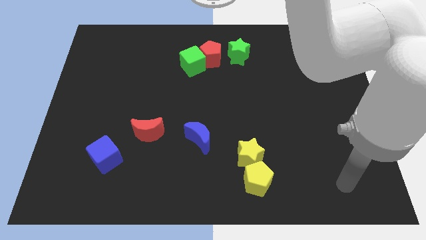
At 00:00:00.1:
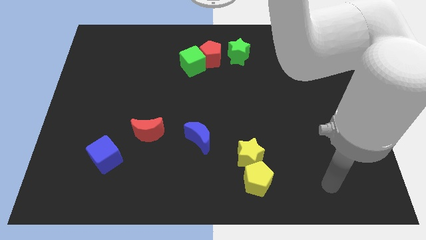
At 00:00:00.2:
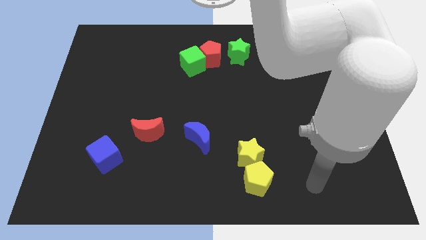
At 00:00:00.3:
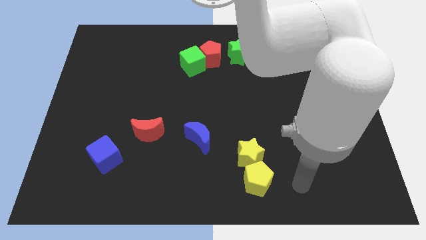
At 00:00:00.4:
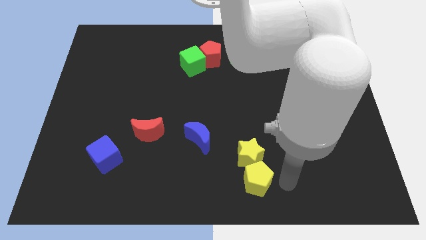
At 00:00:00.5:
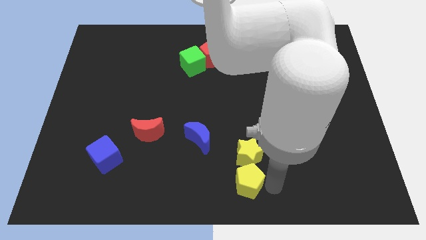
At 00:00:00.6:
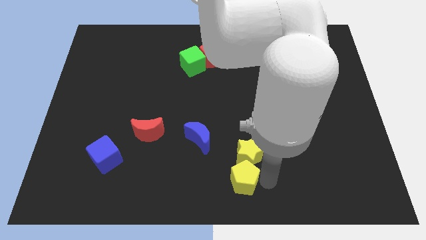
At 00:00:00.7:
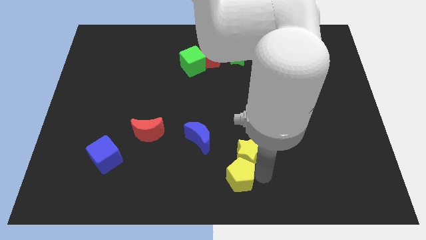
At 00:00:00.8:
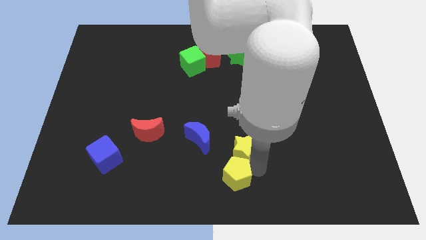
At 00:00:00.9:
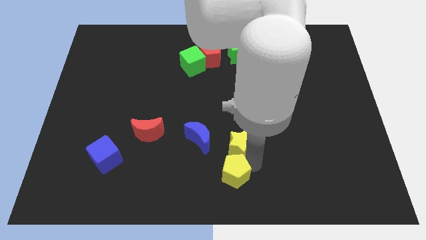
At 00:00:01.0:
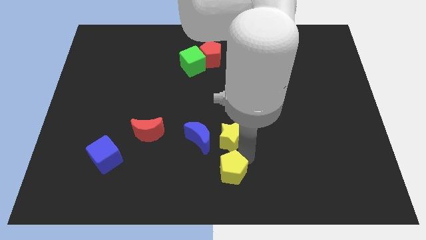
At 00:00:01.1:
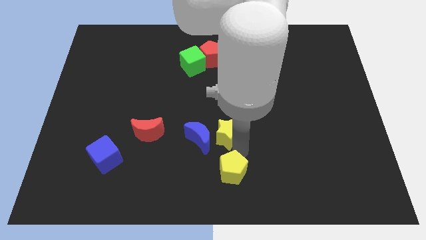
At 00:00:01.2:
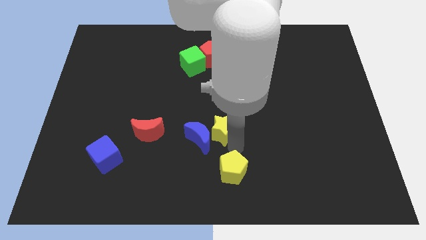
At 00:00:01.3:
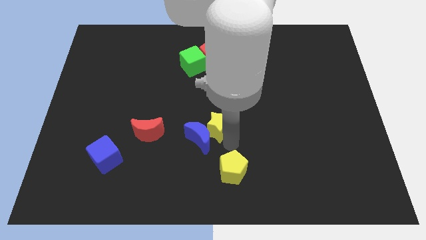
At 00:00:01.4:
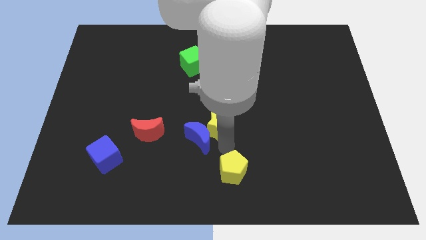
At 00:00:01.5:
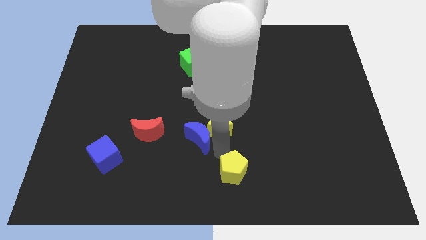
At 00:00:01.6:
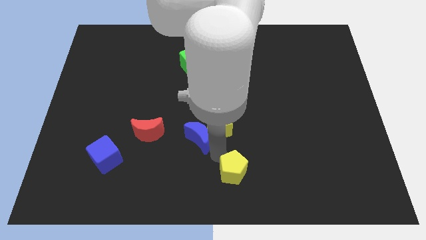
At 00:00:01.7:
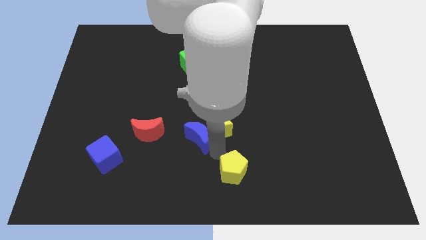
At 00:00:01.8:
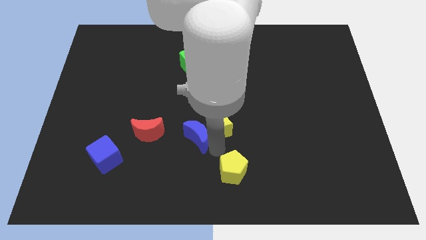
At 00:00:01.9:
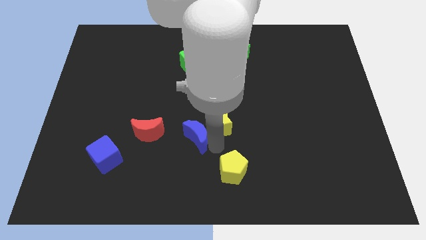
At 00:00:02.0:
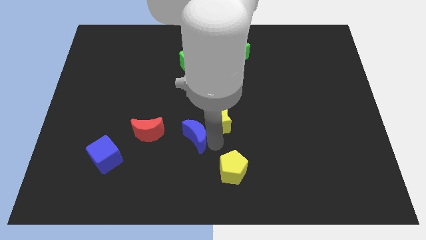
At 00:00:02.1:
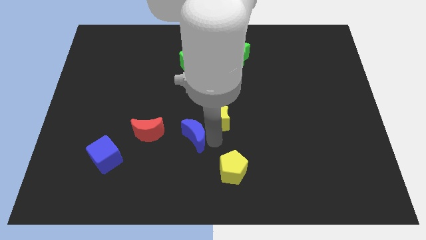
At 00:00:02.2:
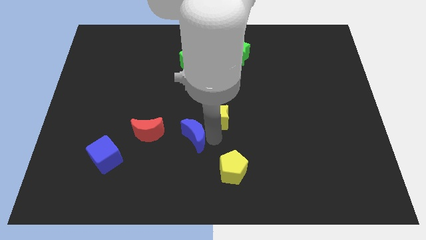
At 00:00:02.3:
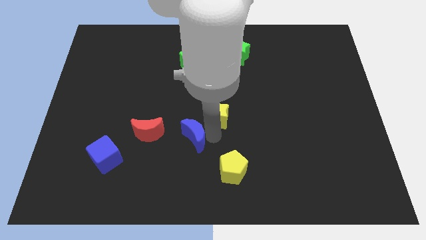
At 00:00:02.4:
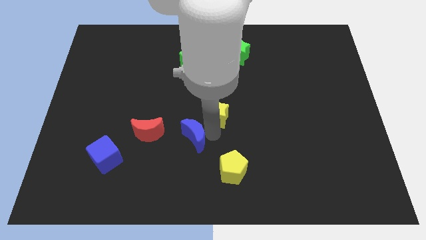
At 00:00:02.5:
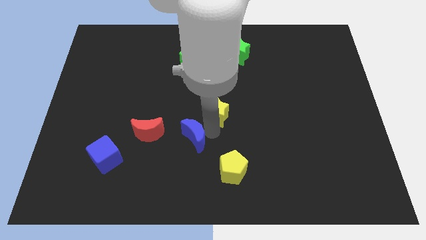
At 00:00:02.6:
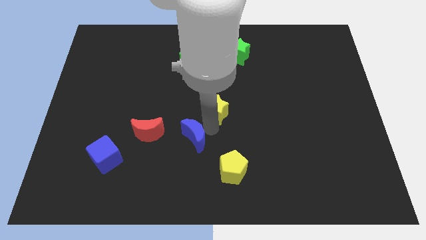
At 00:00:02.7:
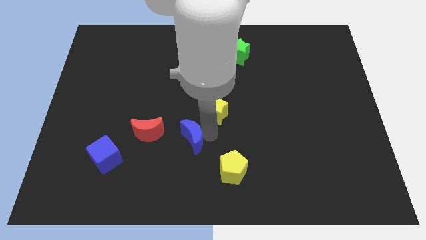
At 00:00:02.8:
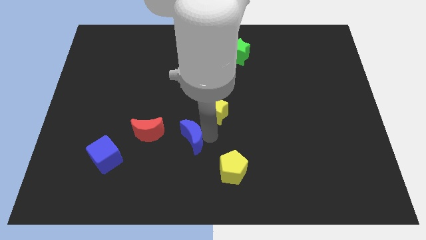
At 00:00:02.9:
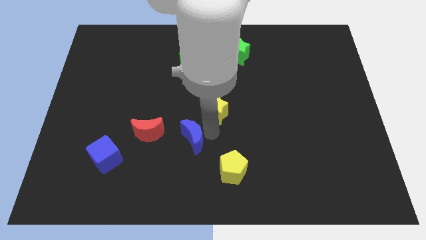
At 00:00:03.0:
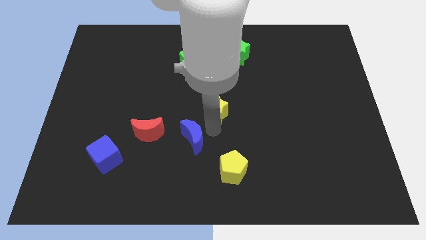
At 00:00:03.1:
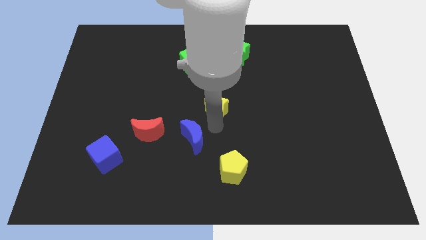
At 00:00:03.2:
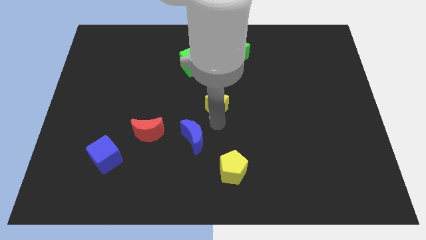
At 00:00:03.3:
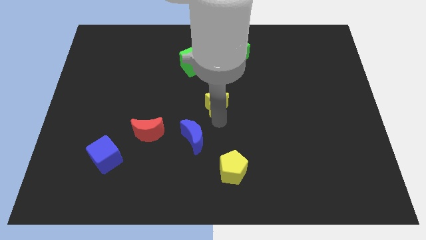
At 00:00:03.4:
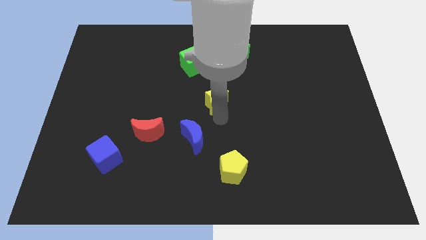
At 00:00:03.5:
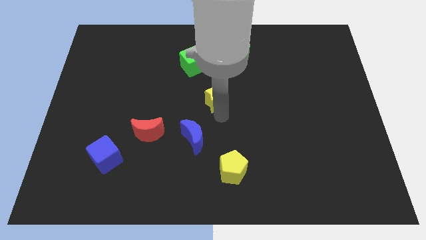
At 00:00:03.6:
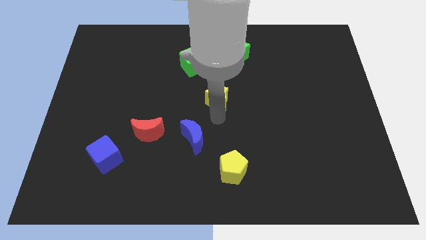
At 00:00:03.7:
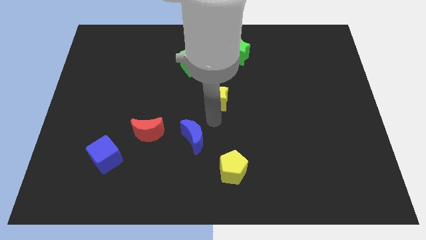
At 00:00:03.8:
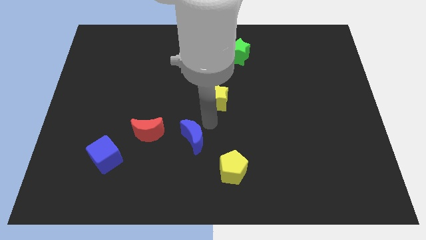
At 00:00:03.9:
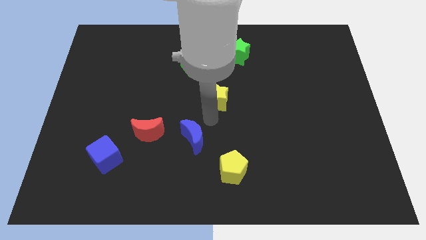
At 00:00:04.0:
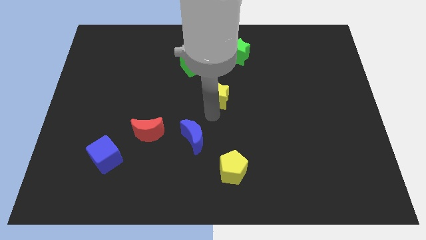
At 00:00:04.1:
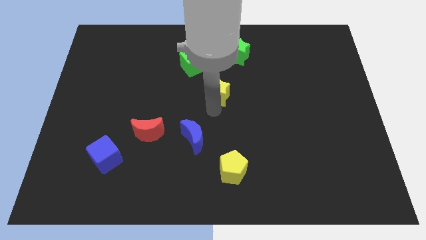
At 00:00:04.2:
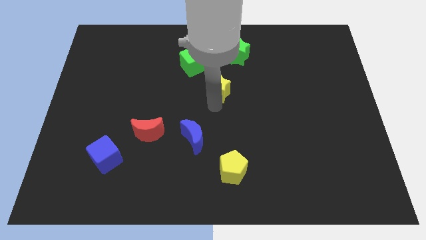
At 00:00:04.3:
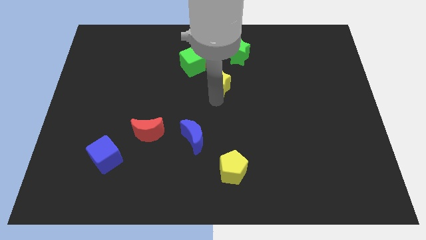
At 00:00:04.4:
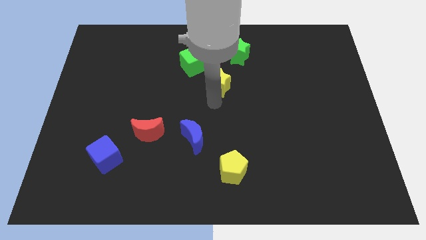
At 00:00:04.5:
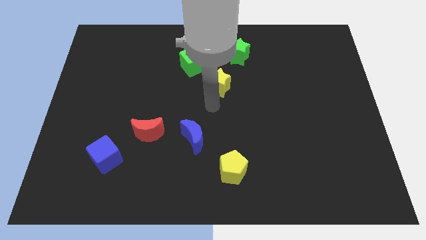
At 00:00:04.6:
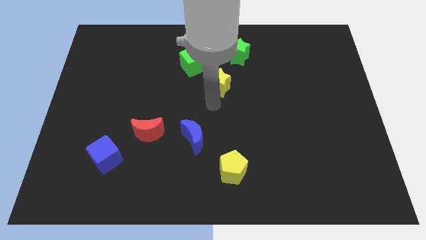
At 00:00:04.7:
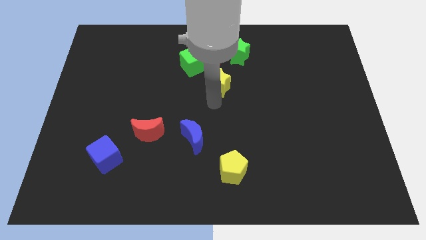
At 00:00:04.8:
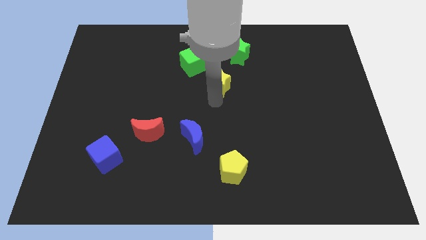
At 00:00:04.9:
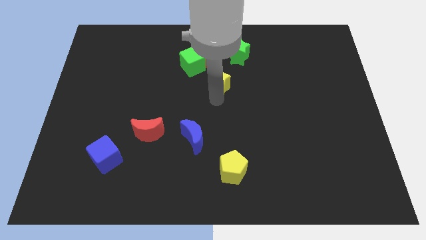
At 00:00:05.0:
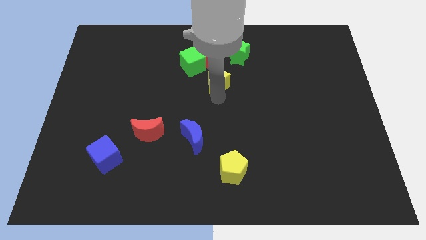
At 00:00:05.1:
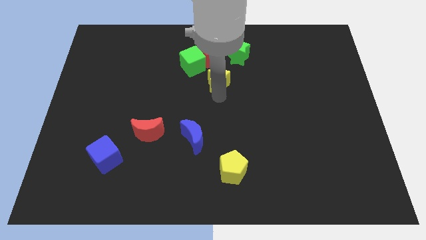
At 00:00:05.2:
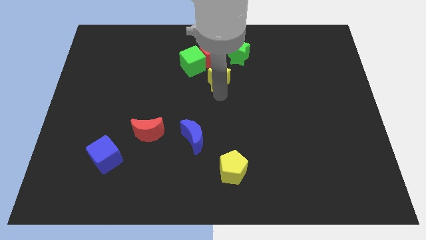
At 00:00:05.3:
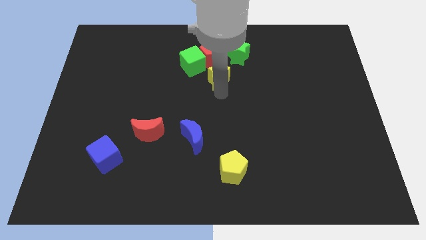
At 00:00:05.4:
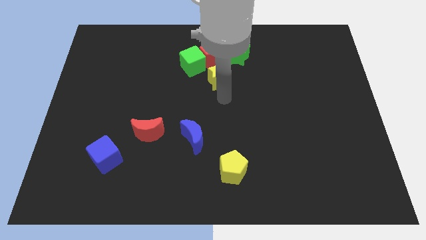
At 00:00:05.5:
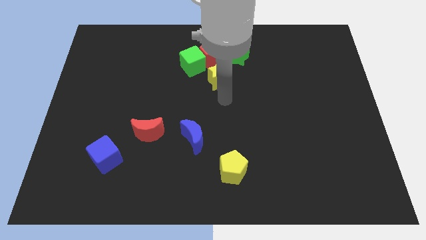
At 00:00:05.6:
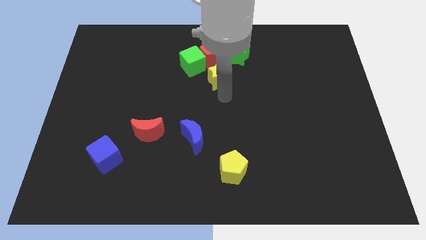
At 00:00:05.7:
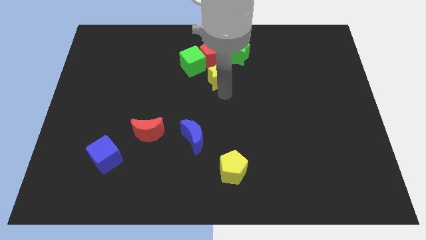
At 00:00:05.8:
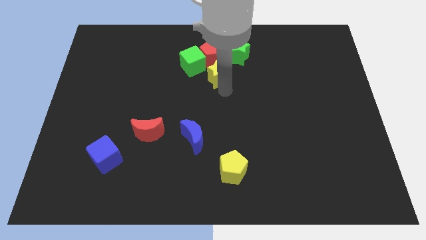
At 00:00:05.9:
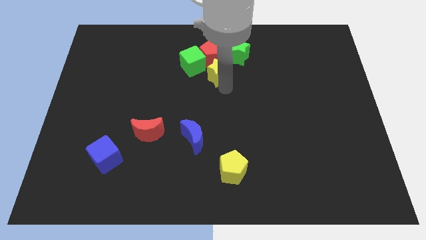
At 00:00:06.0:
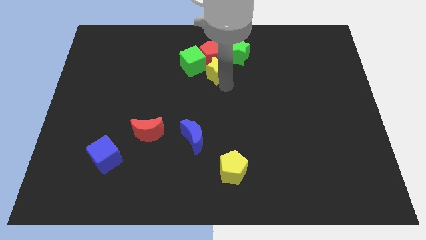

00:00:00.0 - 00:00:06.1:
move the yellow star close to the red pentagon

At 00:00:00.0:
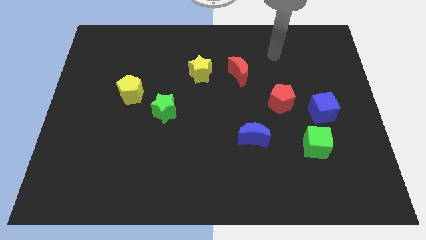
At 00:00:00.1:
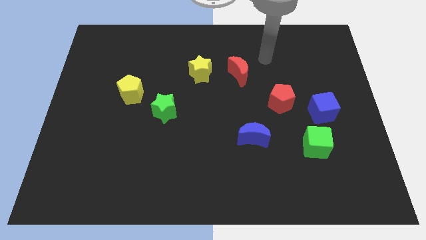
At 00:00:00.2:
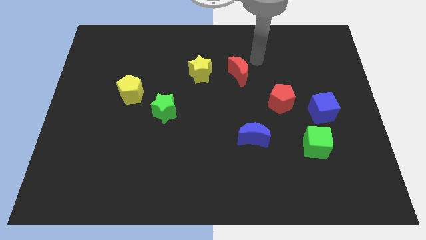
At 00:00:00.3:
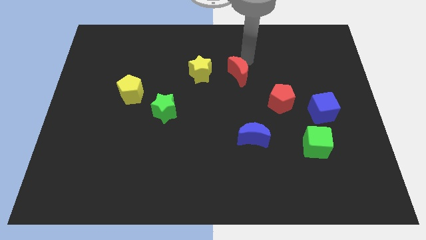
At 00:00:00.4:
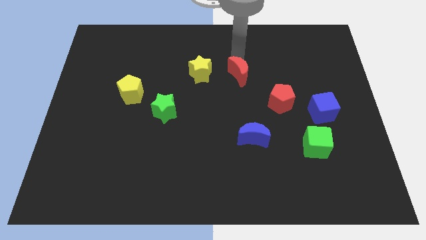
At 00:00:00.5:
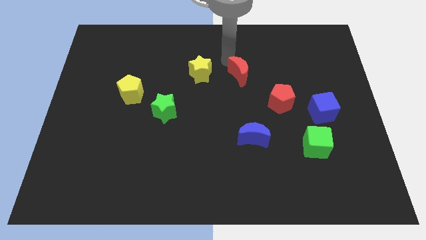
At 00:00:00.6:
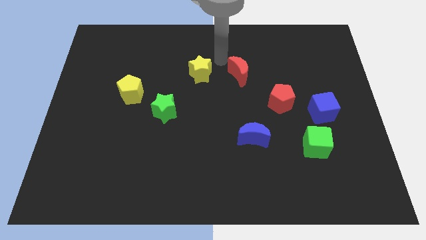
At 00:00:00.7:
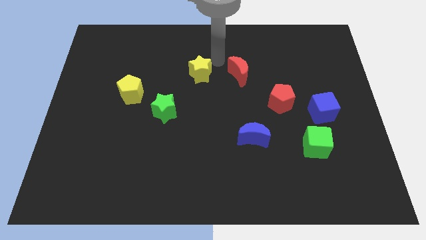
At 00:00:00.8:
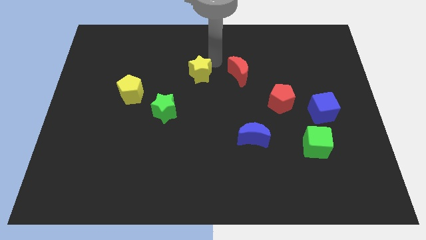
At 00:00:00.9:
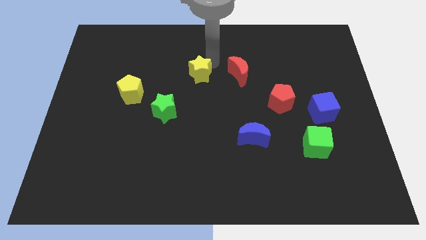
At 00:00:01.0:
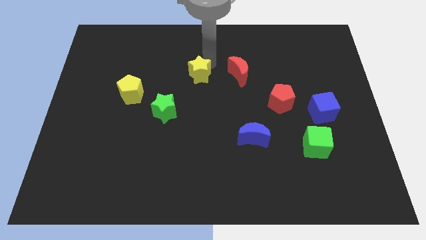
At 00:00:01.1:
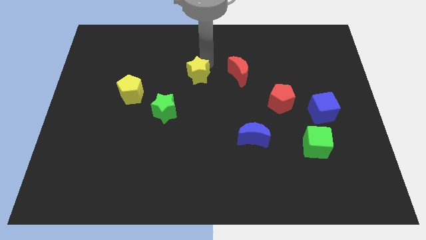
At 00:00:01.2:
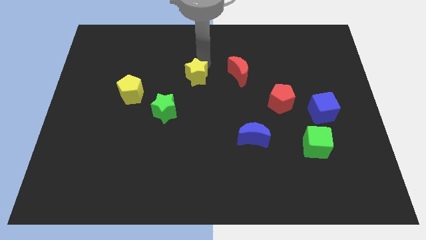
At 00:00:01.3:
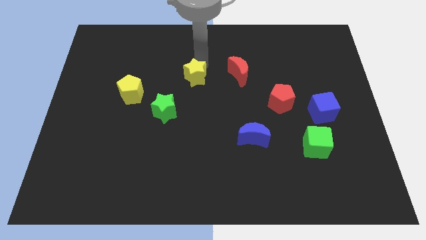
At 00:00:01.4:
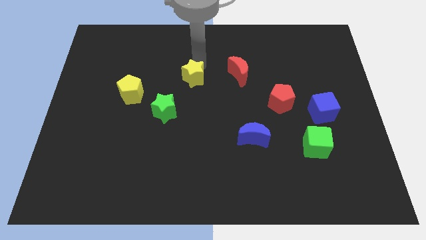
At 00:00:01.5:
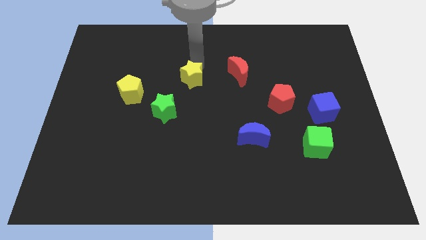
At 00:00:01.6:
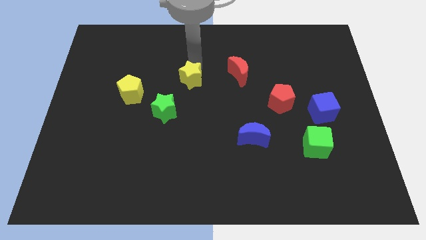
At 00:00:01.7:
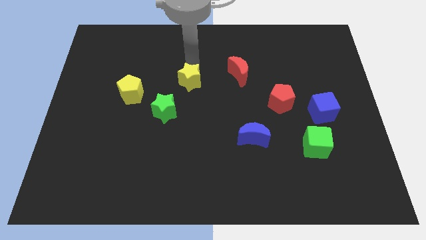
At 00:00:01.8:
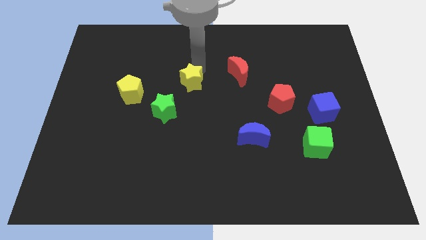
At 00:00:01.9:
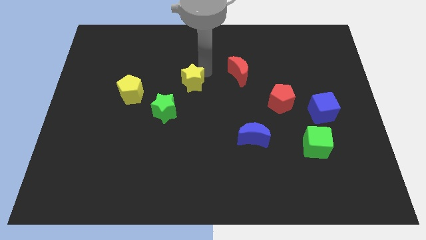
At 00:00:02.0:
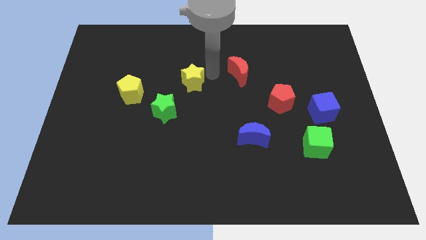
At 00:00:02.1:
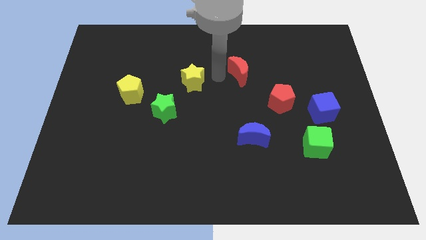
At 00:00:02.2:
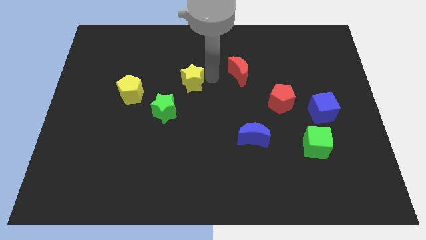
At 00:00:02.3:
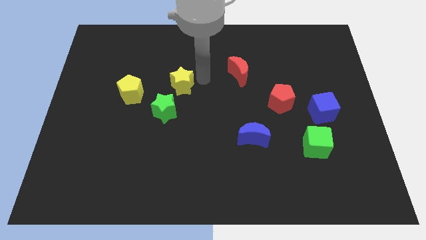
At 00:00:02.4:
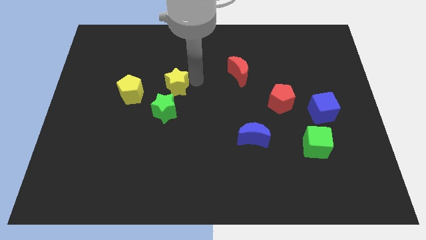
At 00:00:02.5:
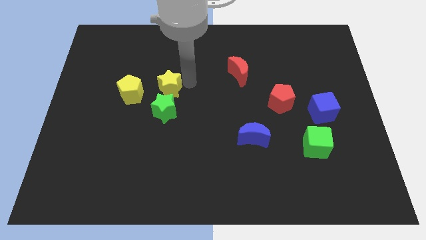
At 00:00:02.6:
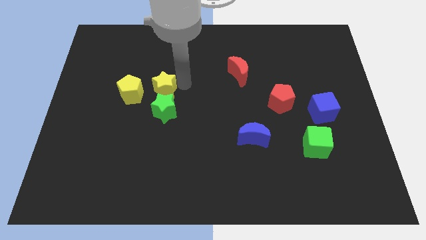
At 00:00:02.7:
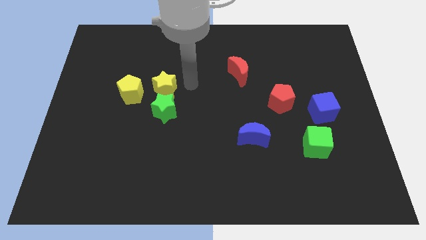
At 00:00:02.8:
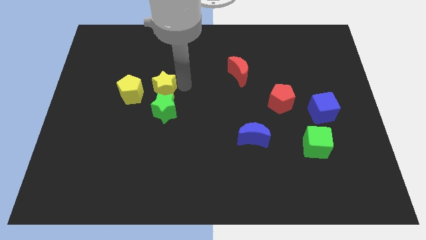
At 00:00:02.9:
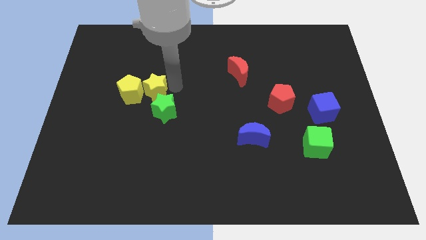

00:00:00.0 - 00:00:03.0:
slide the yellow star next to the yellow pentagon
